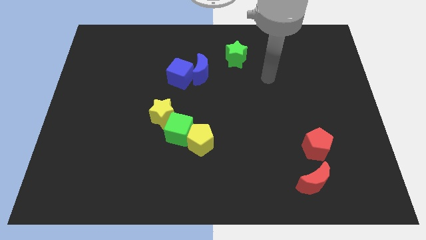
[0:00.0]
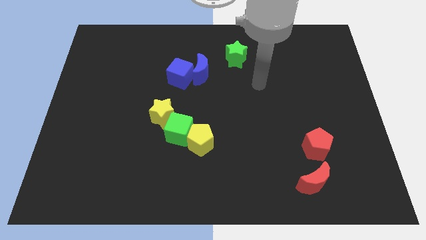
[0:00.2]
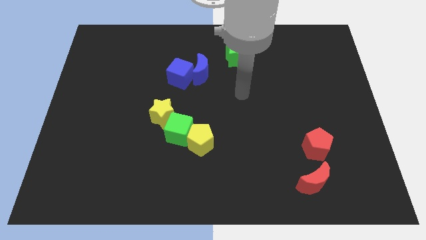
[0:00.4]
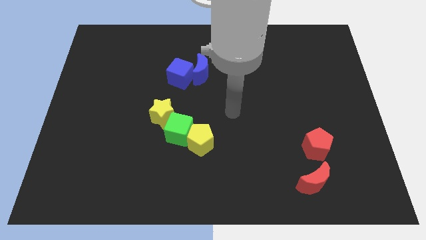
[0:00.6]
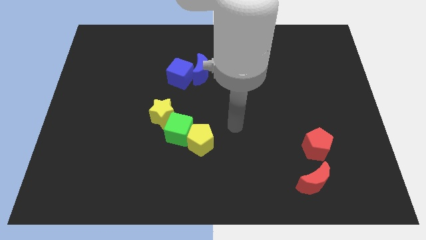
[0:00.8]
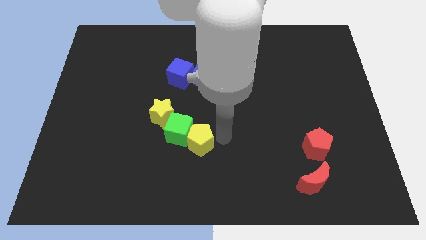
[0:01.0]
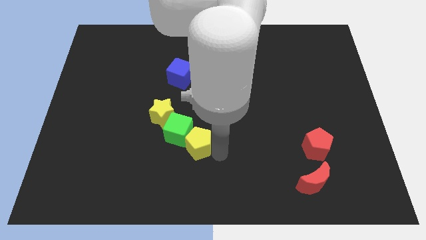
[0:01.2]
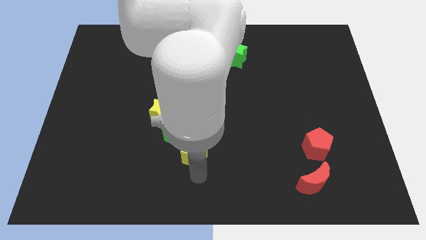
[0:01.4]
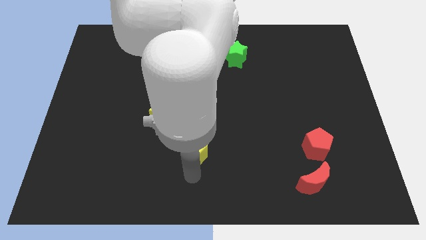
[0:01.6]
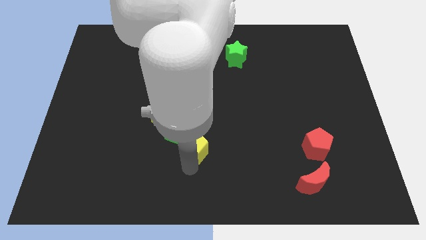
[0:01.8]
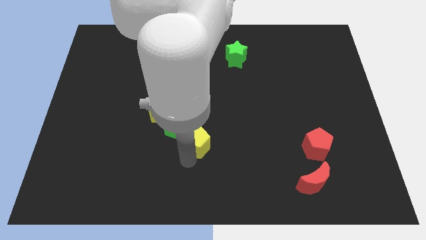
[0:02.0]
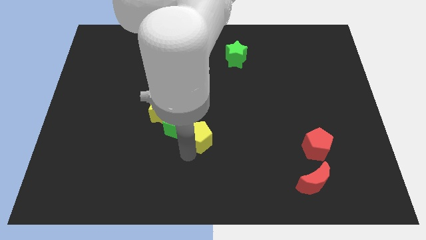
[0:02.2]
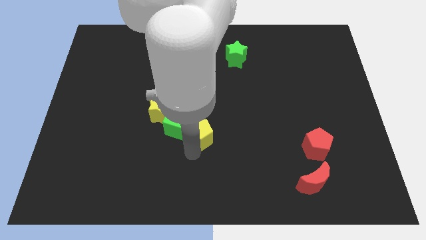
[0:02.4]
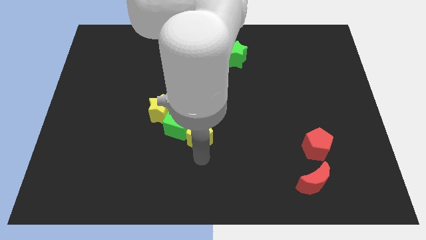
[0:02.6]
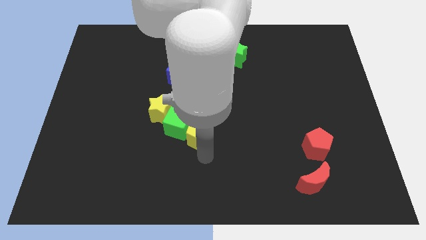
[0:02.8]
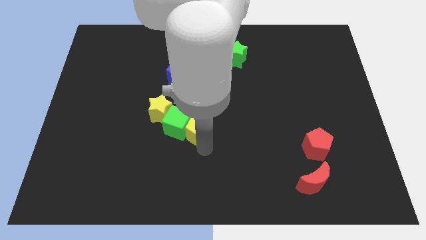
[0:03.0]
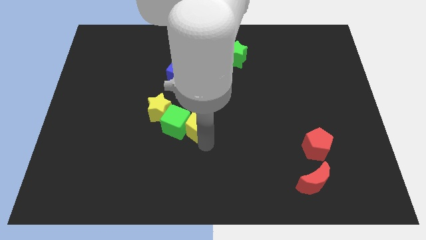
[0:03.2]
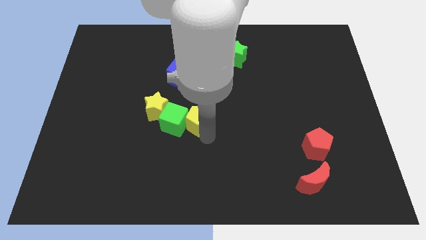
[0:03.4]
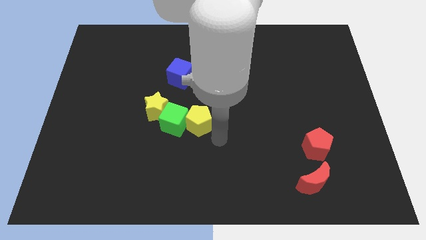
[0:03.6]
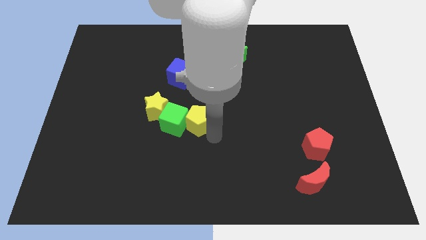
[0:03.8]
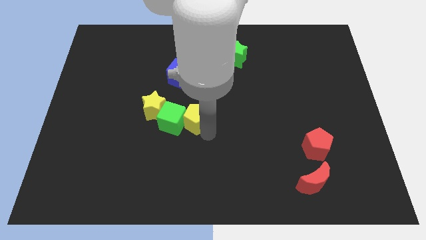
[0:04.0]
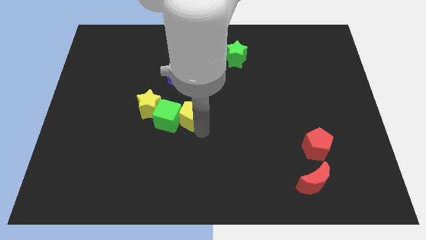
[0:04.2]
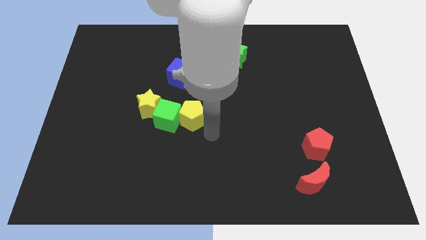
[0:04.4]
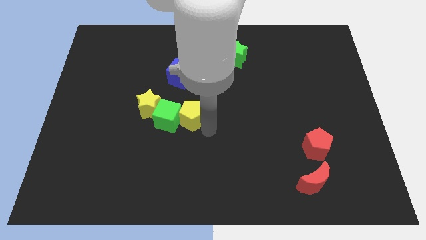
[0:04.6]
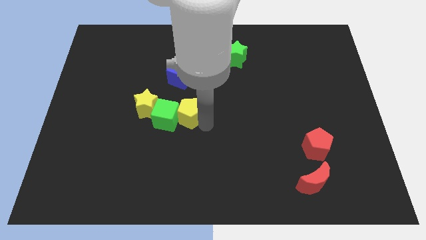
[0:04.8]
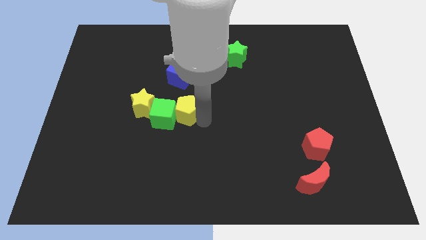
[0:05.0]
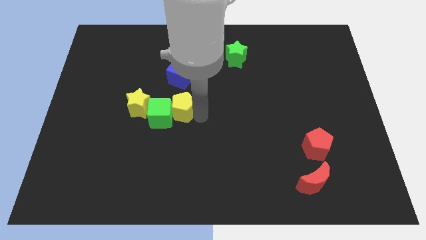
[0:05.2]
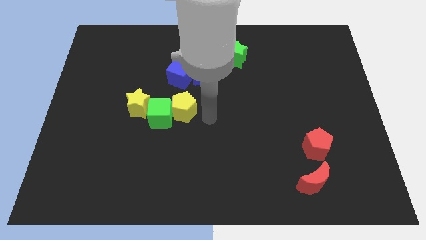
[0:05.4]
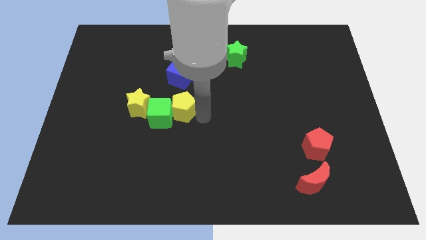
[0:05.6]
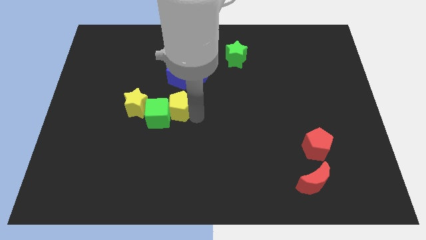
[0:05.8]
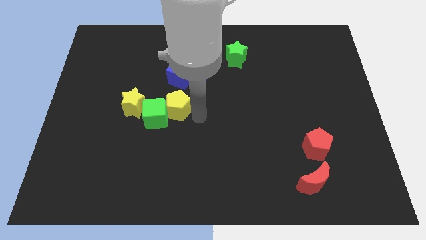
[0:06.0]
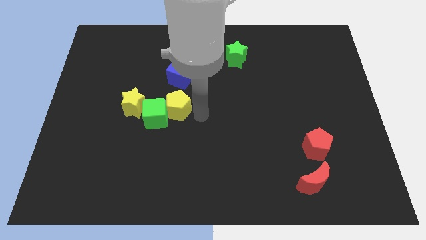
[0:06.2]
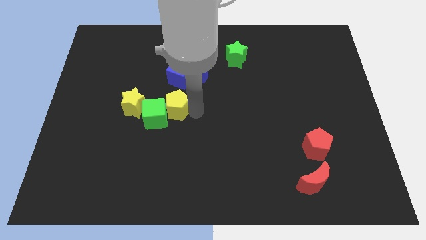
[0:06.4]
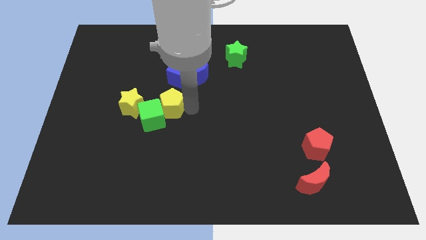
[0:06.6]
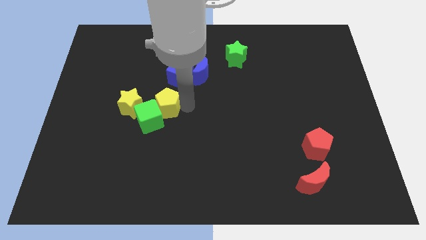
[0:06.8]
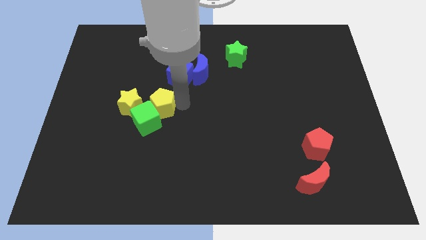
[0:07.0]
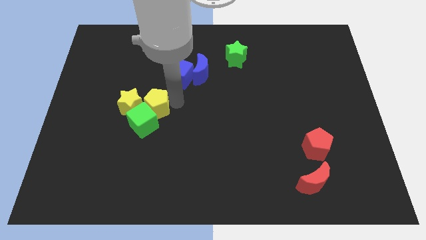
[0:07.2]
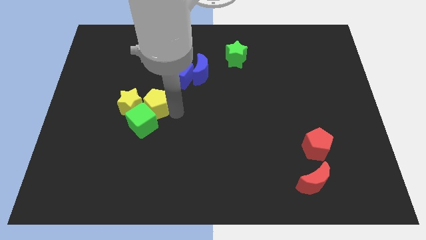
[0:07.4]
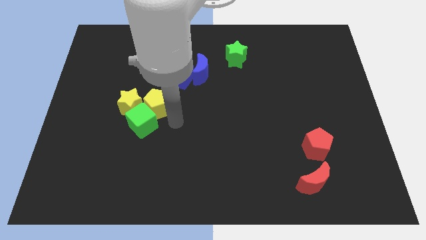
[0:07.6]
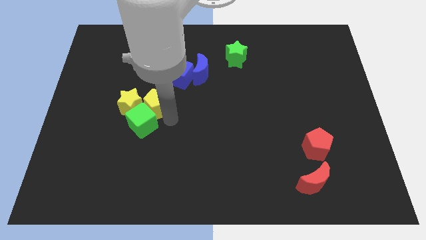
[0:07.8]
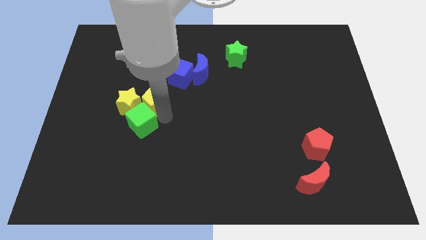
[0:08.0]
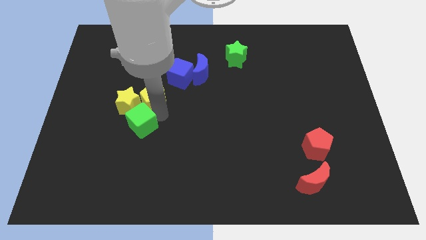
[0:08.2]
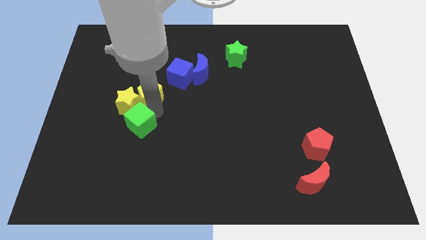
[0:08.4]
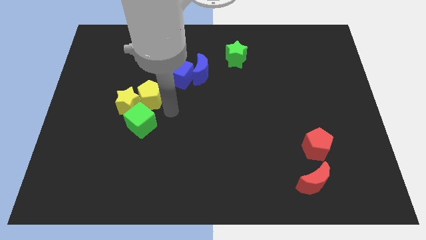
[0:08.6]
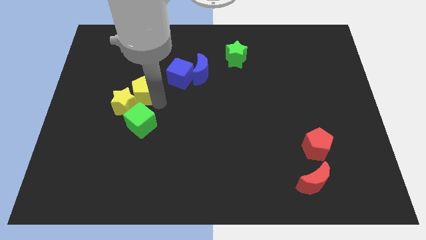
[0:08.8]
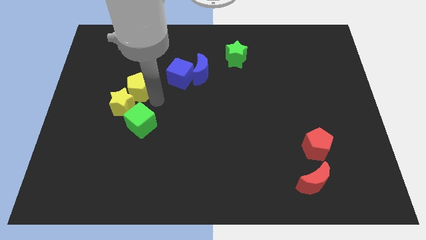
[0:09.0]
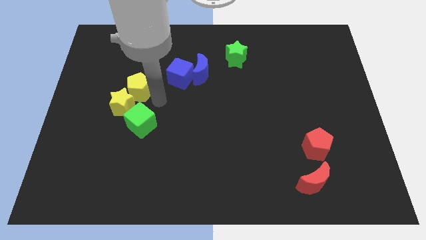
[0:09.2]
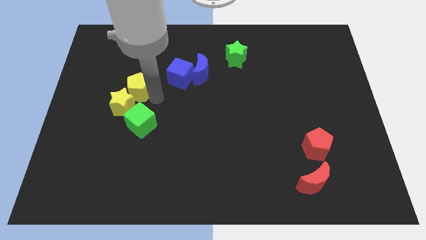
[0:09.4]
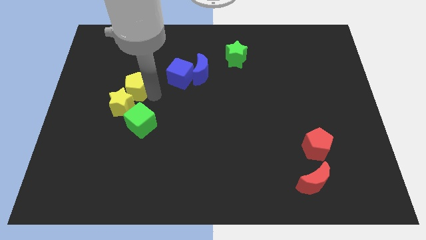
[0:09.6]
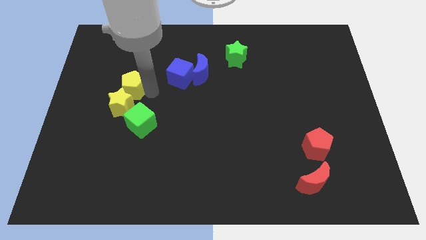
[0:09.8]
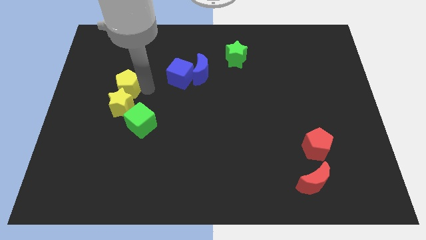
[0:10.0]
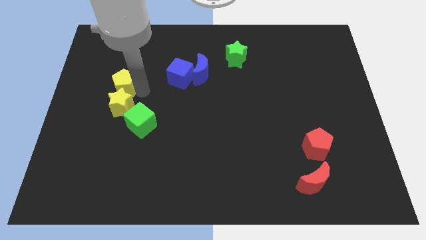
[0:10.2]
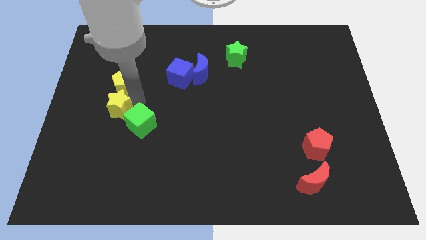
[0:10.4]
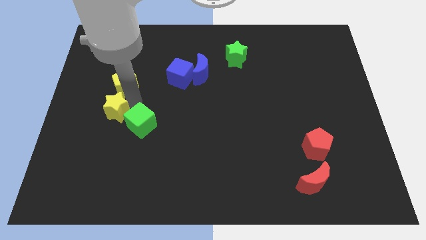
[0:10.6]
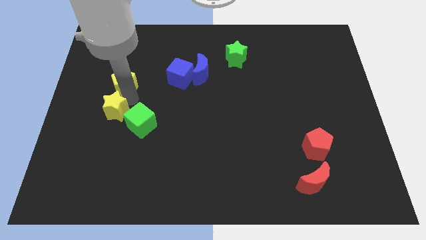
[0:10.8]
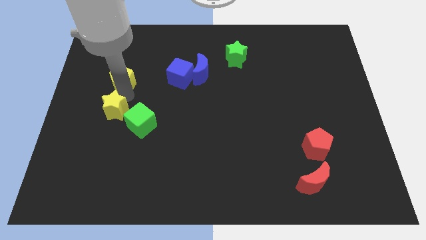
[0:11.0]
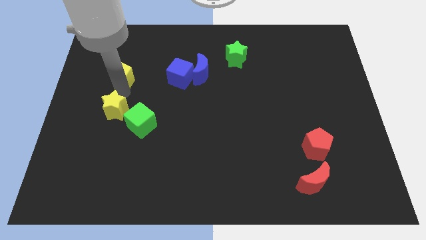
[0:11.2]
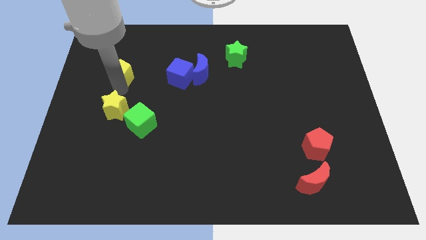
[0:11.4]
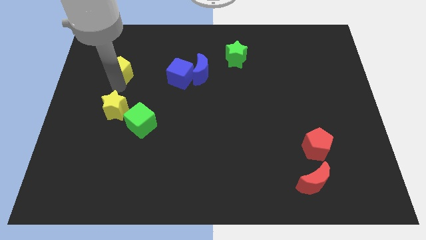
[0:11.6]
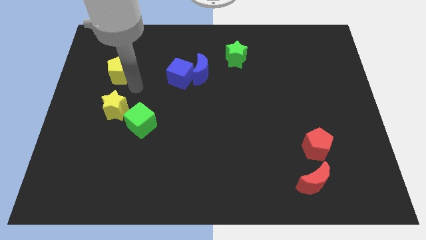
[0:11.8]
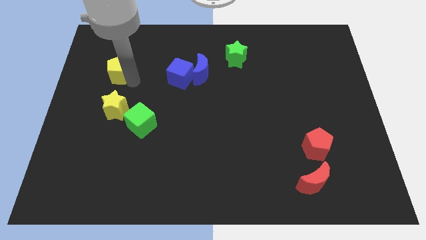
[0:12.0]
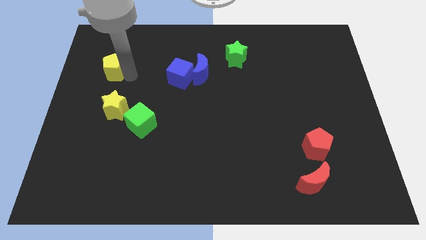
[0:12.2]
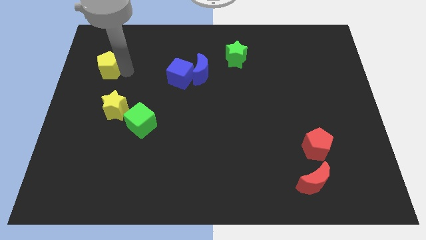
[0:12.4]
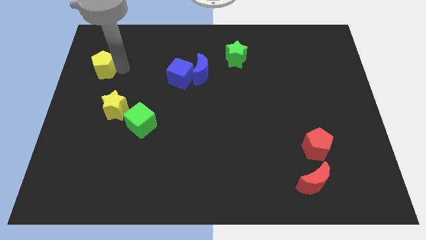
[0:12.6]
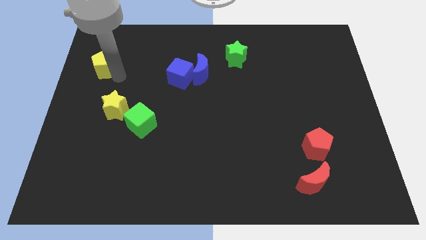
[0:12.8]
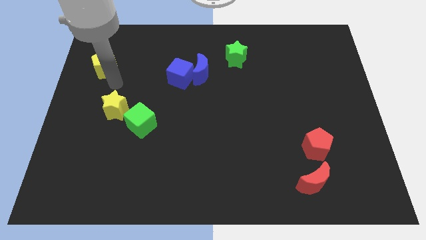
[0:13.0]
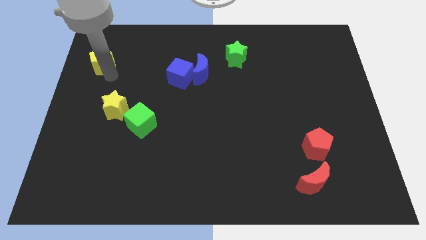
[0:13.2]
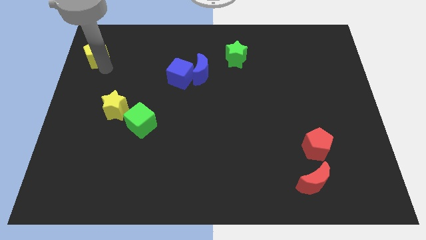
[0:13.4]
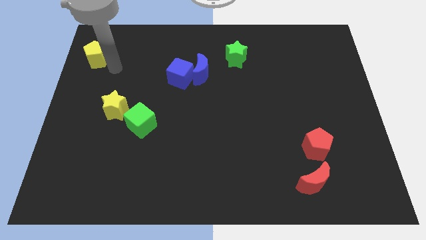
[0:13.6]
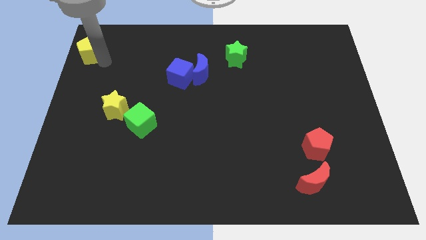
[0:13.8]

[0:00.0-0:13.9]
slide the yellow pentagon to the top left
